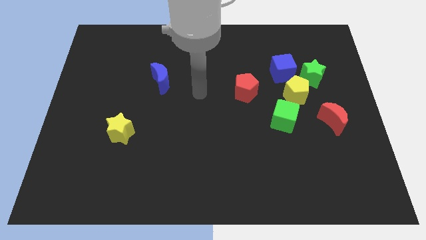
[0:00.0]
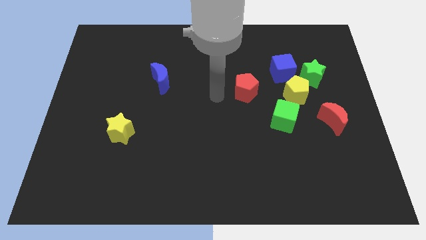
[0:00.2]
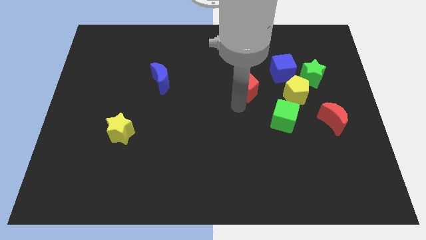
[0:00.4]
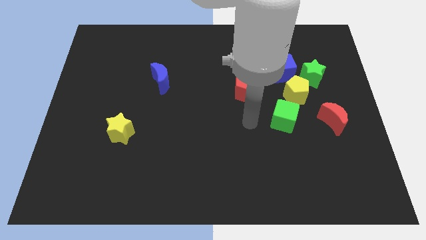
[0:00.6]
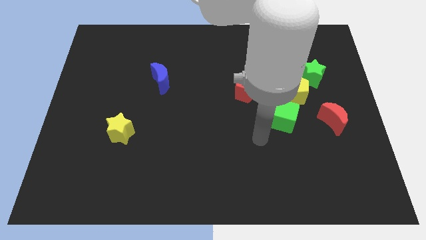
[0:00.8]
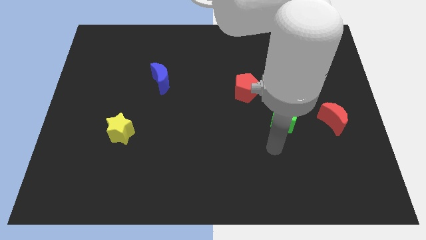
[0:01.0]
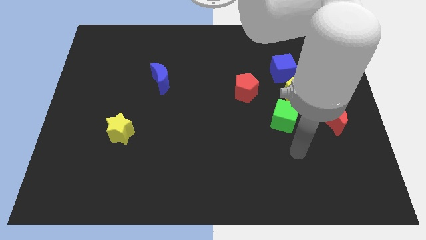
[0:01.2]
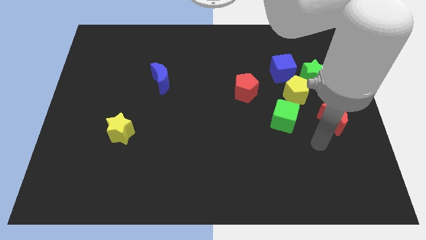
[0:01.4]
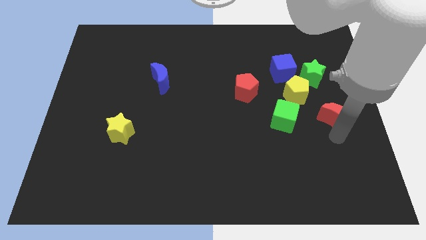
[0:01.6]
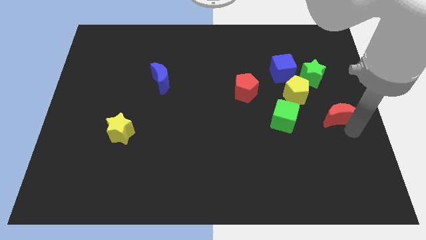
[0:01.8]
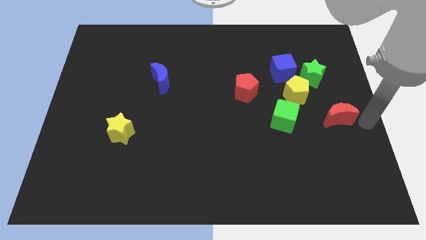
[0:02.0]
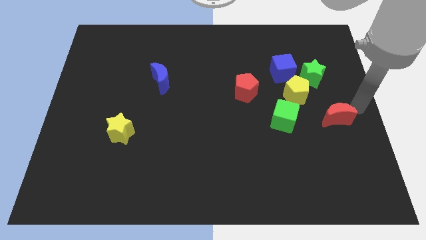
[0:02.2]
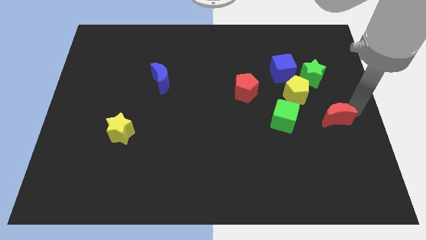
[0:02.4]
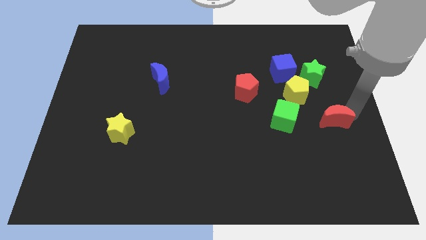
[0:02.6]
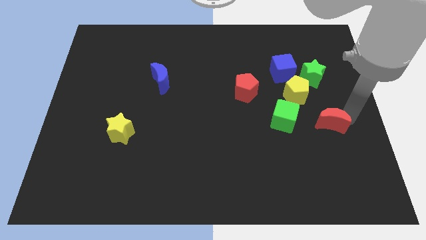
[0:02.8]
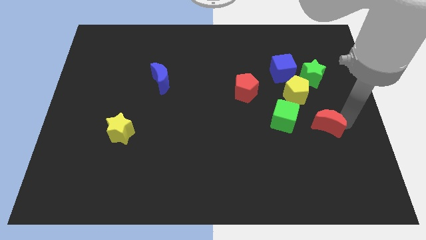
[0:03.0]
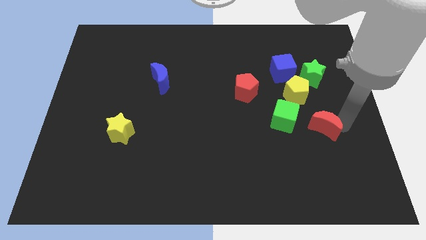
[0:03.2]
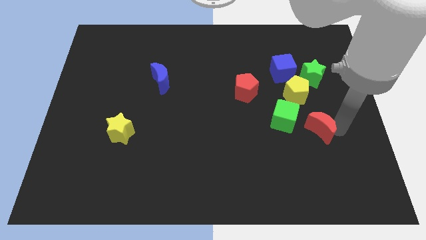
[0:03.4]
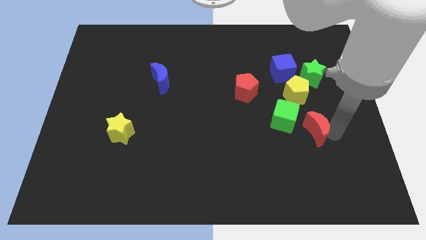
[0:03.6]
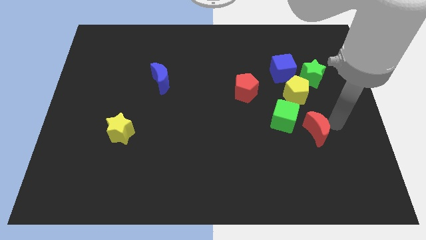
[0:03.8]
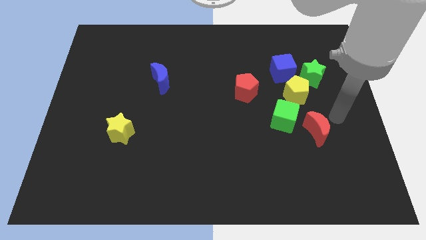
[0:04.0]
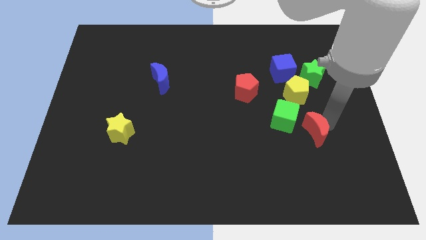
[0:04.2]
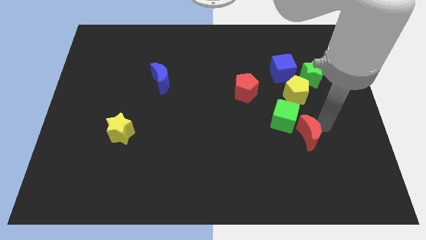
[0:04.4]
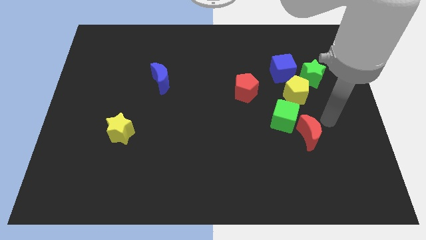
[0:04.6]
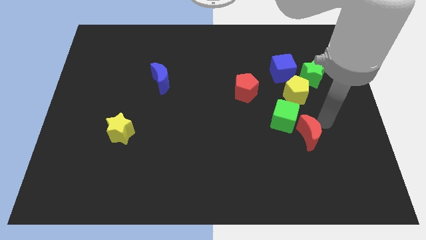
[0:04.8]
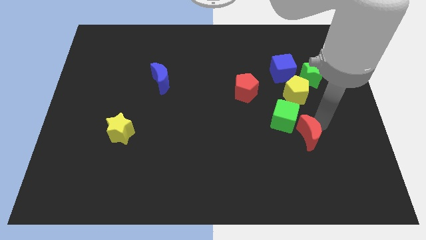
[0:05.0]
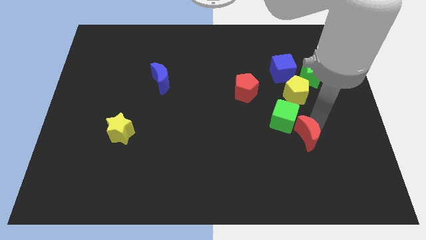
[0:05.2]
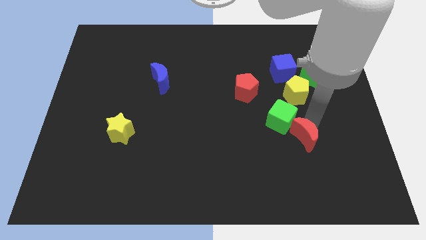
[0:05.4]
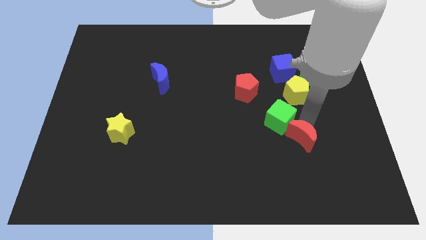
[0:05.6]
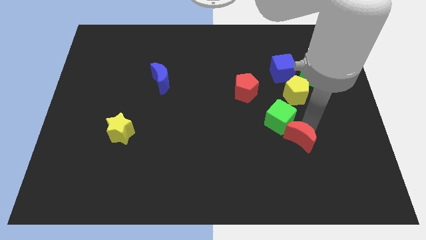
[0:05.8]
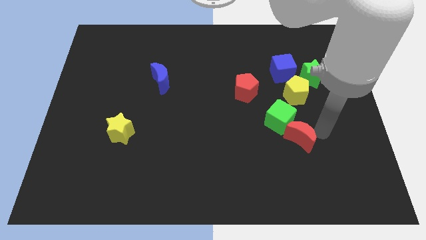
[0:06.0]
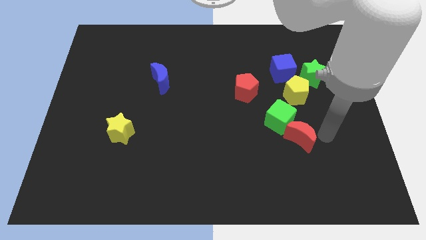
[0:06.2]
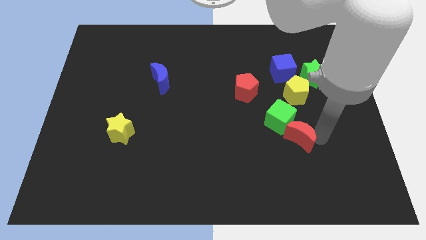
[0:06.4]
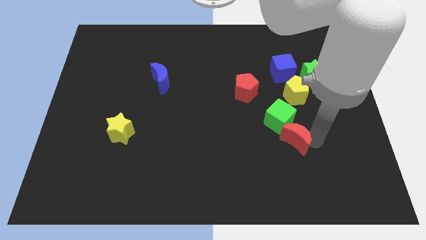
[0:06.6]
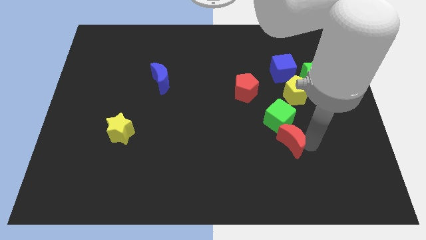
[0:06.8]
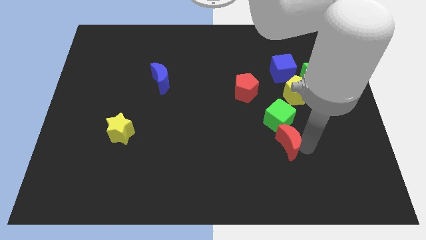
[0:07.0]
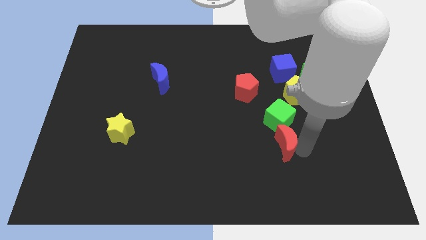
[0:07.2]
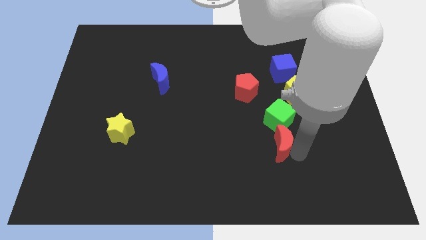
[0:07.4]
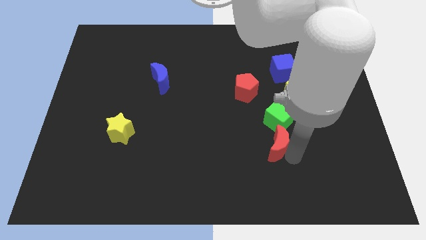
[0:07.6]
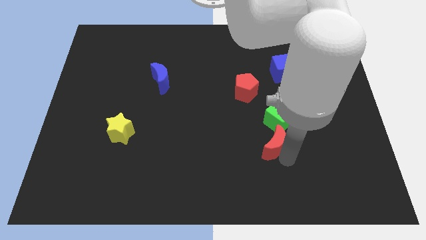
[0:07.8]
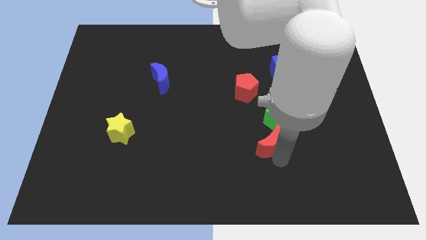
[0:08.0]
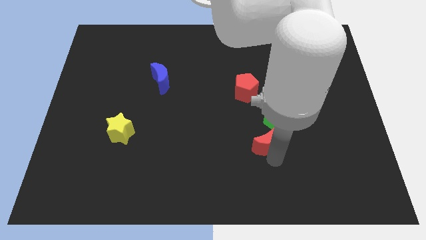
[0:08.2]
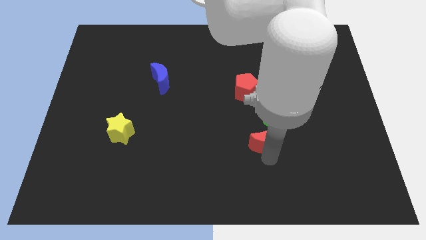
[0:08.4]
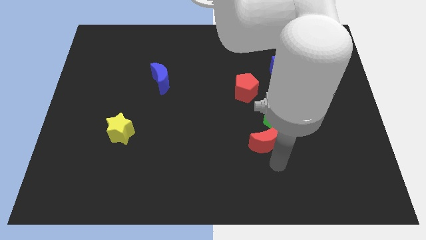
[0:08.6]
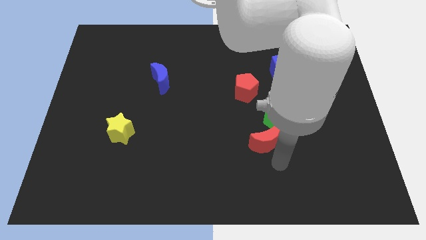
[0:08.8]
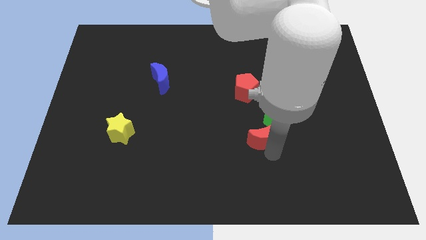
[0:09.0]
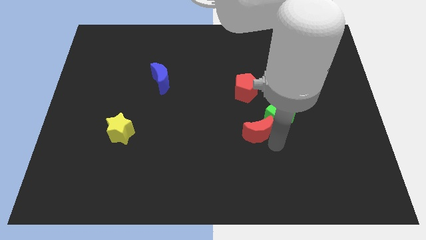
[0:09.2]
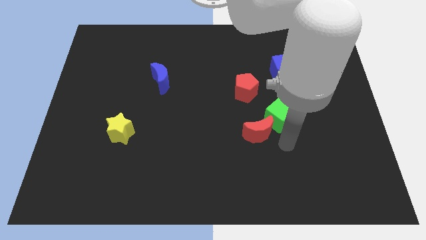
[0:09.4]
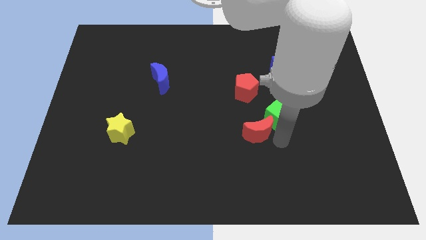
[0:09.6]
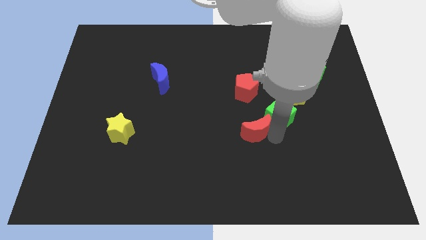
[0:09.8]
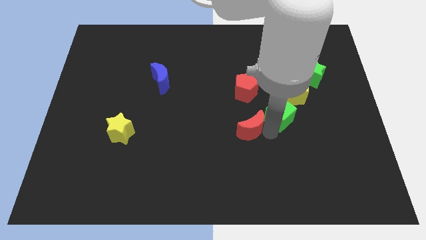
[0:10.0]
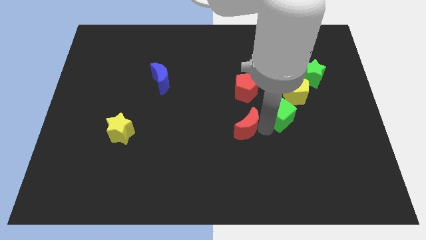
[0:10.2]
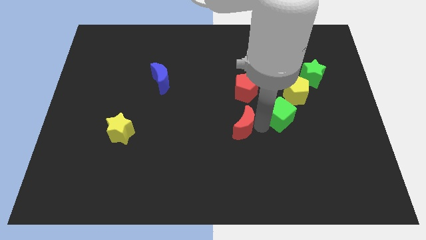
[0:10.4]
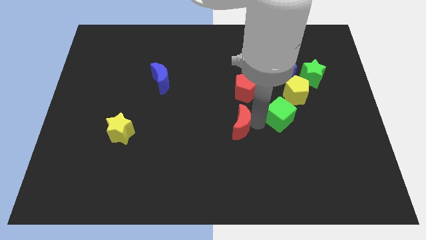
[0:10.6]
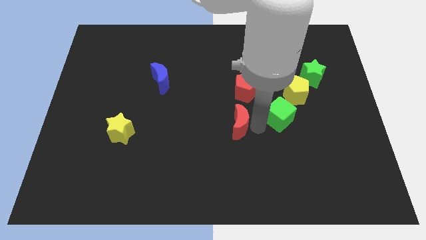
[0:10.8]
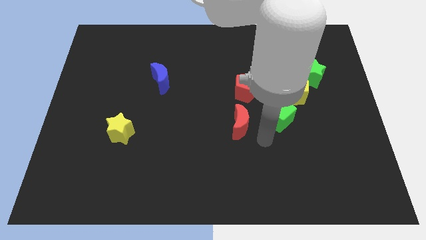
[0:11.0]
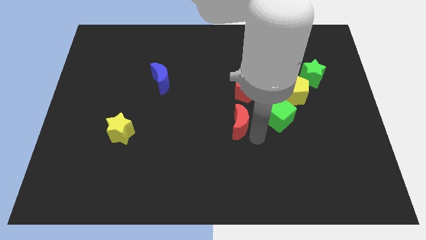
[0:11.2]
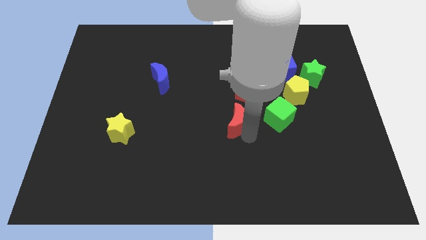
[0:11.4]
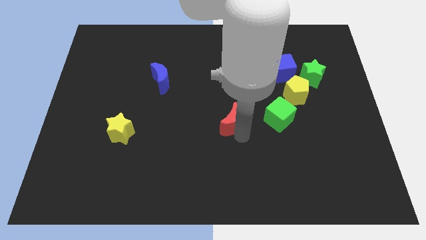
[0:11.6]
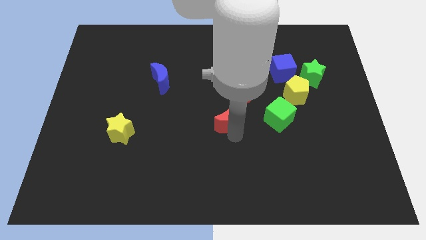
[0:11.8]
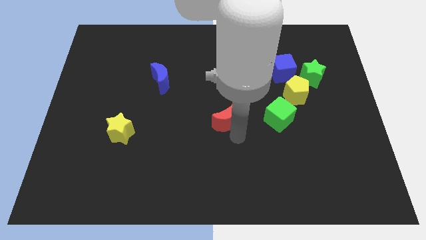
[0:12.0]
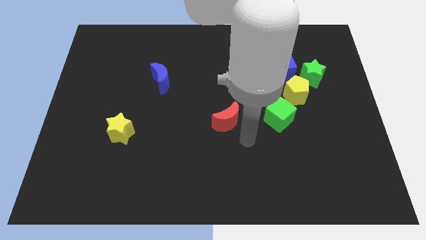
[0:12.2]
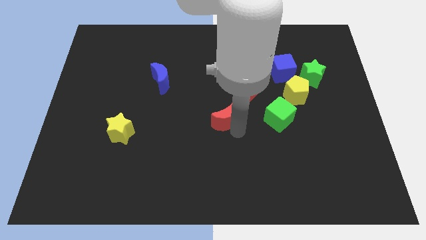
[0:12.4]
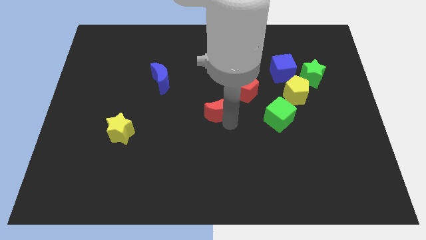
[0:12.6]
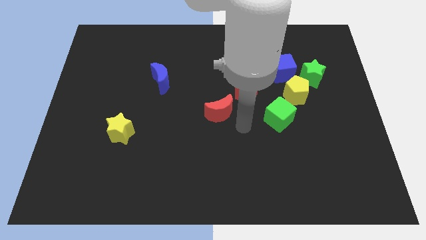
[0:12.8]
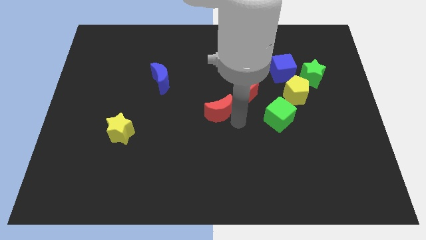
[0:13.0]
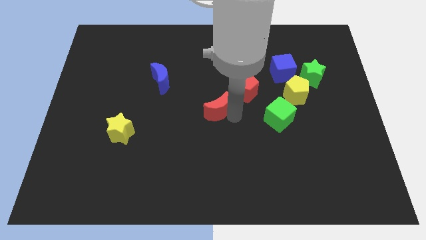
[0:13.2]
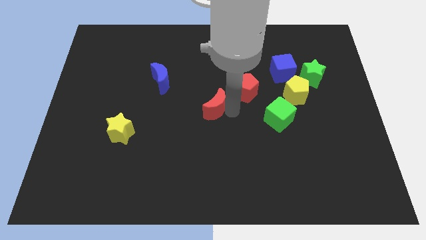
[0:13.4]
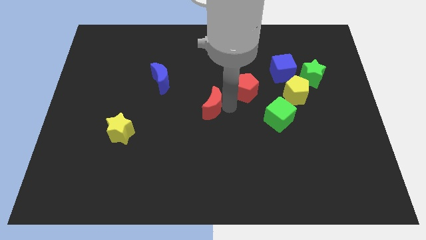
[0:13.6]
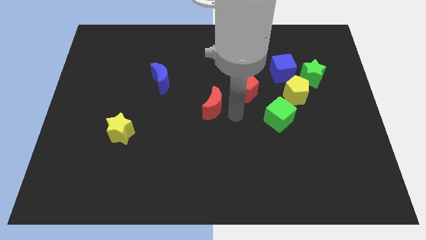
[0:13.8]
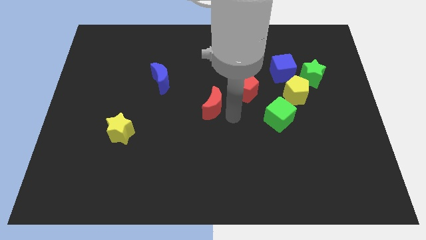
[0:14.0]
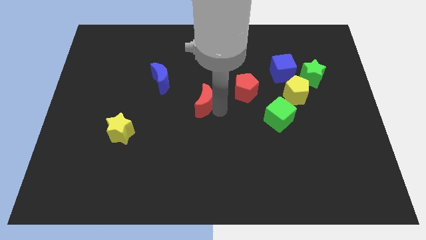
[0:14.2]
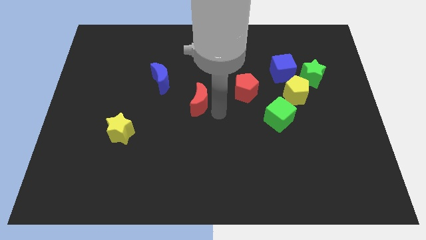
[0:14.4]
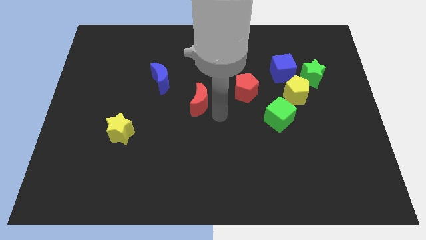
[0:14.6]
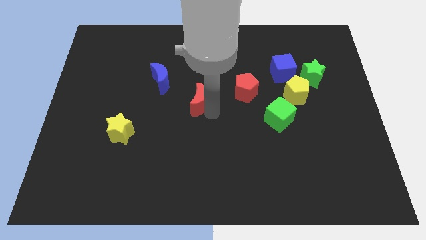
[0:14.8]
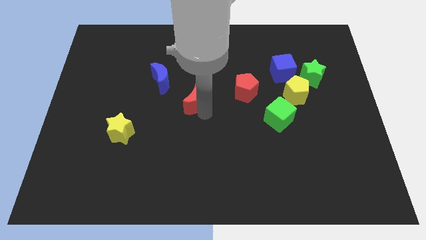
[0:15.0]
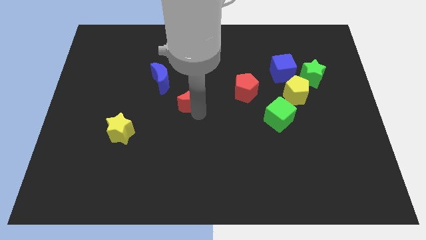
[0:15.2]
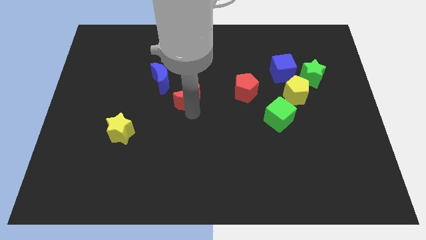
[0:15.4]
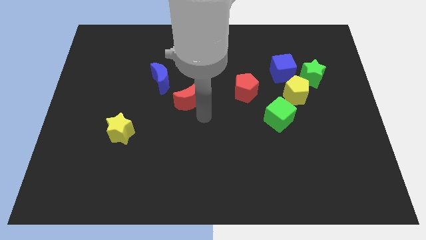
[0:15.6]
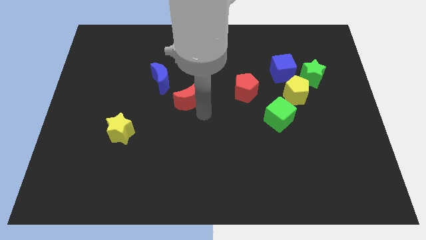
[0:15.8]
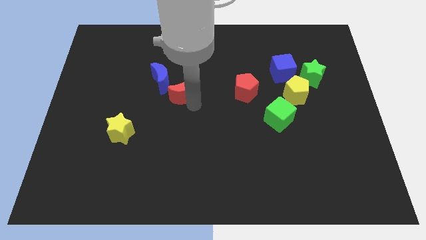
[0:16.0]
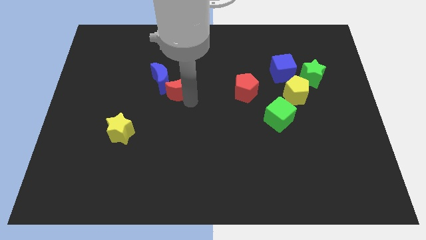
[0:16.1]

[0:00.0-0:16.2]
put the red moon to the blue moon
